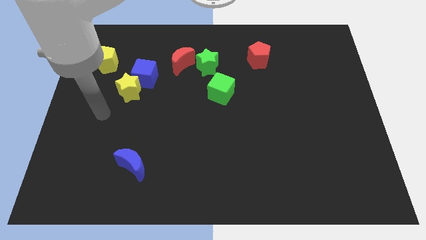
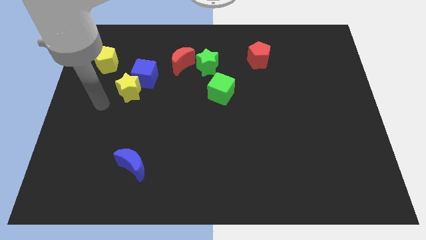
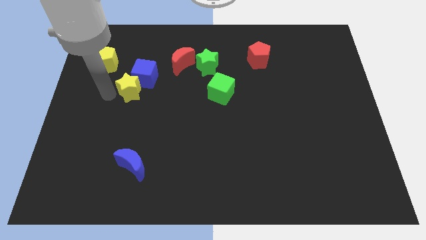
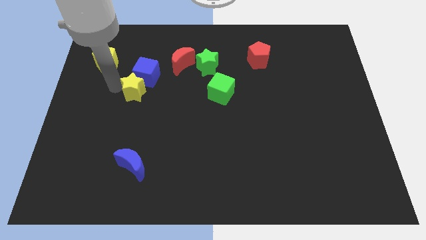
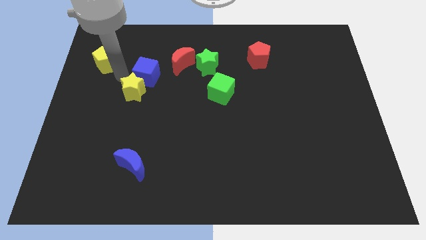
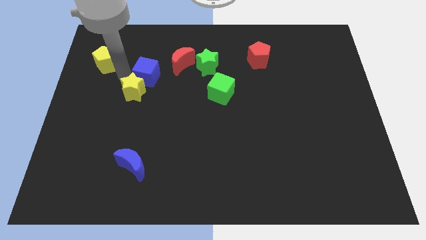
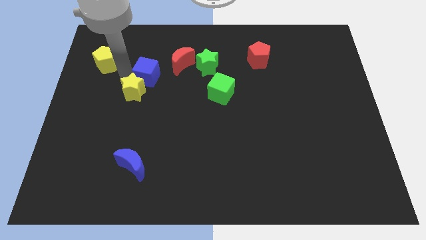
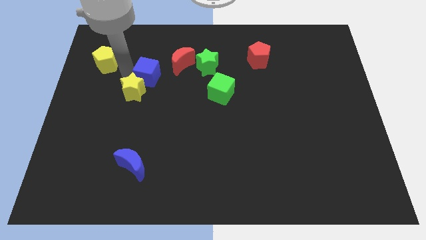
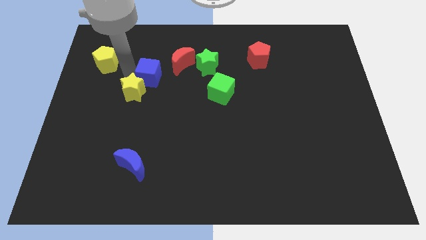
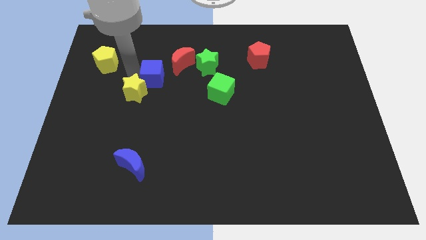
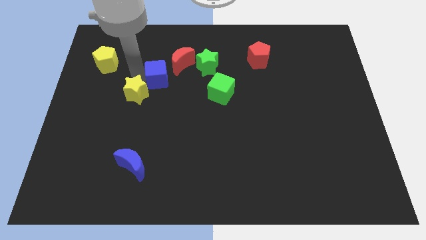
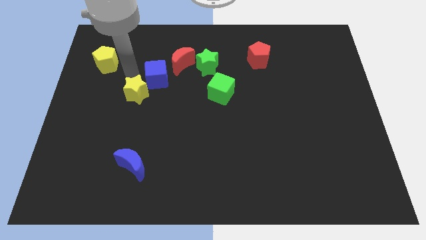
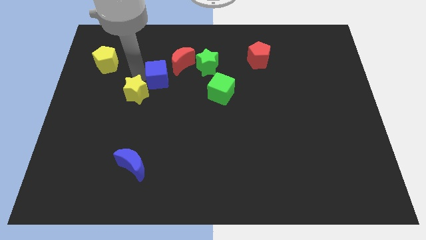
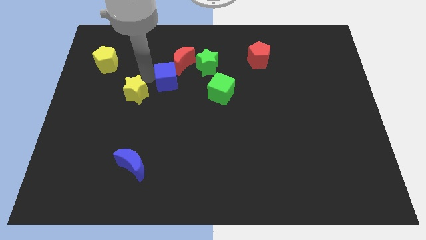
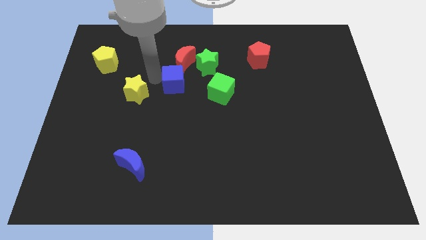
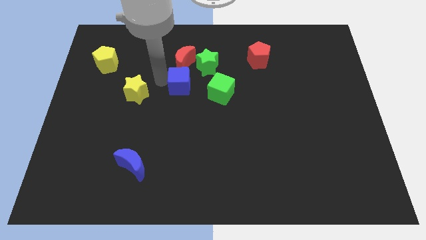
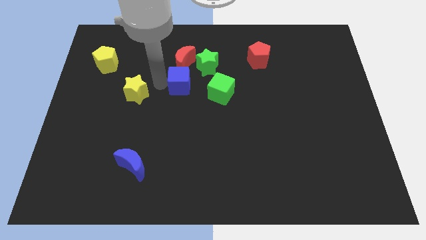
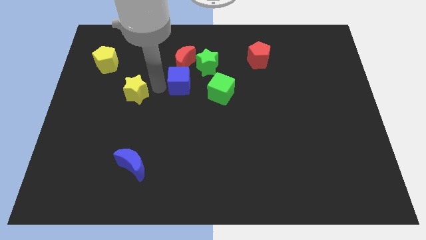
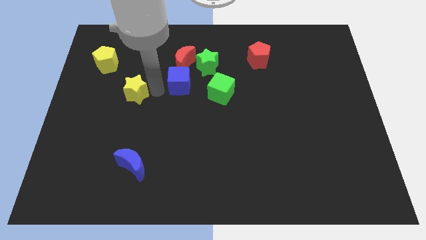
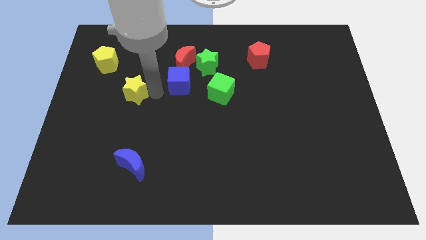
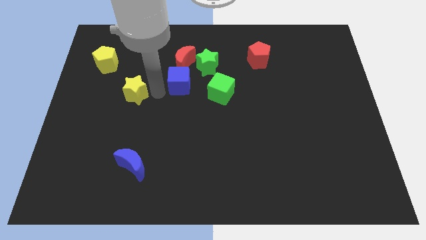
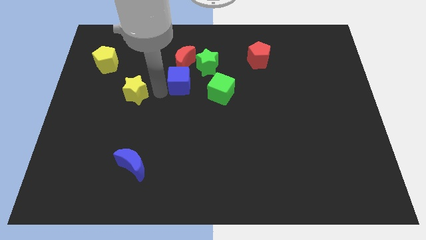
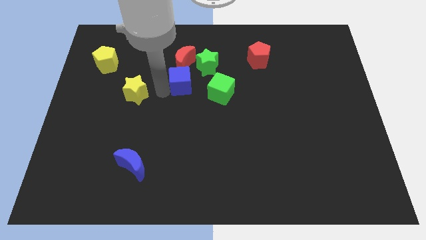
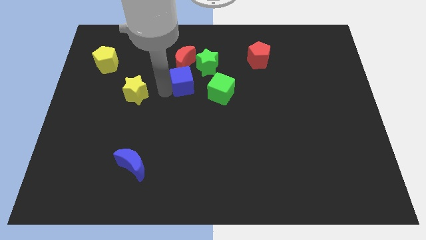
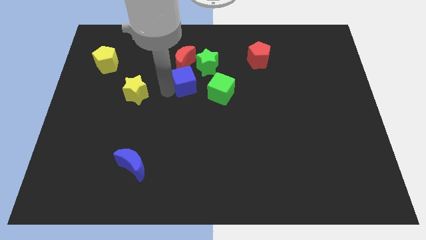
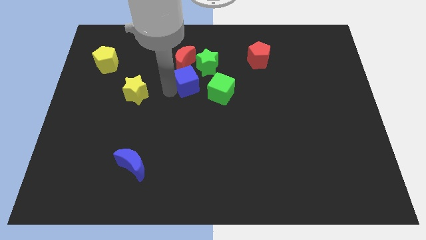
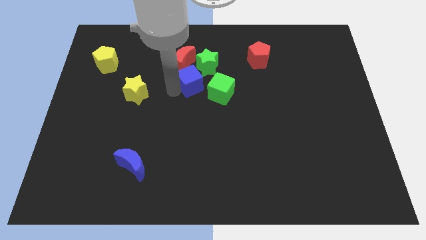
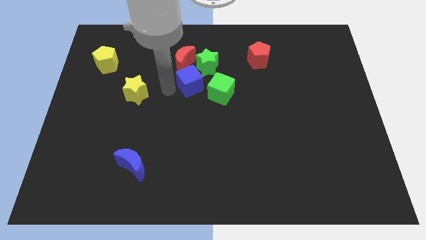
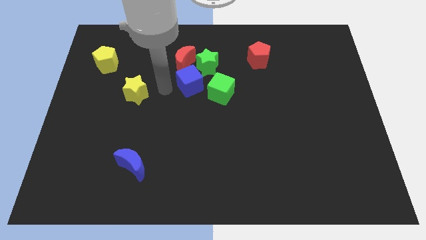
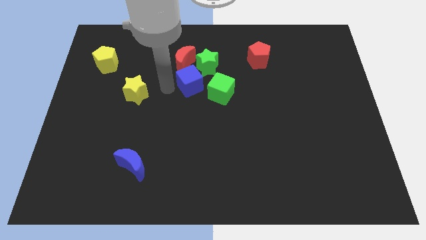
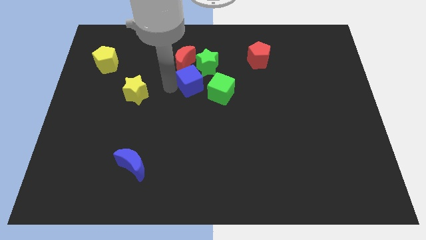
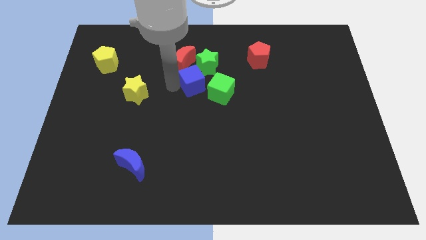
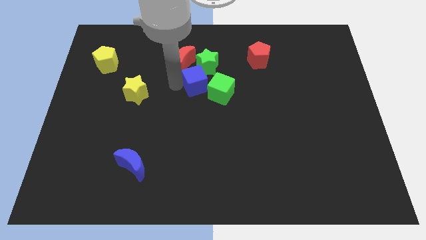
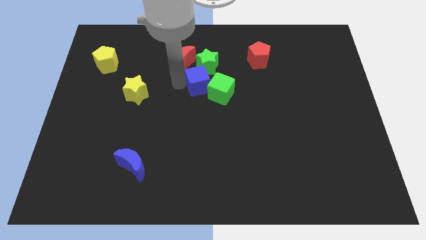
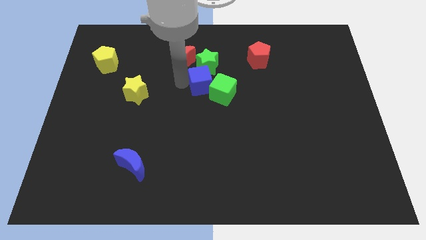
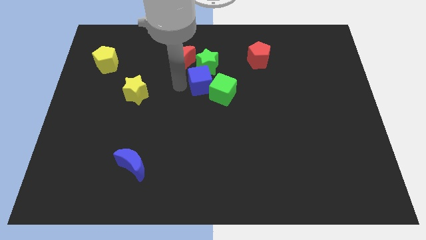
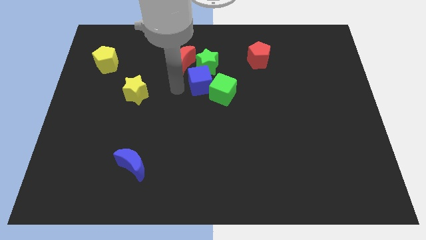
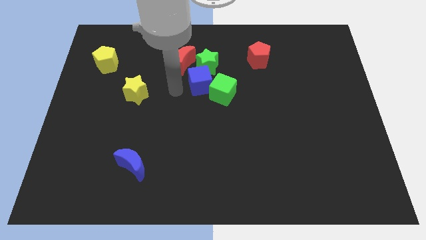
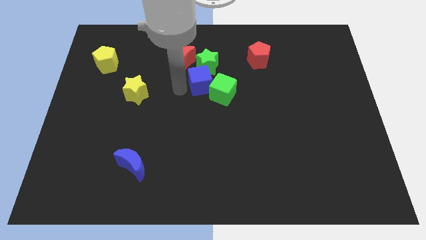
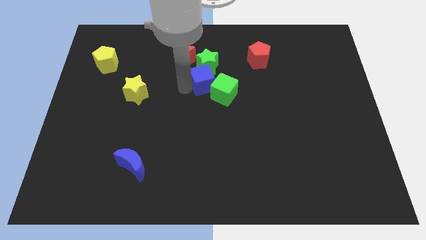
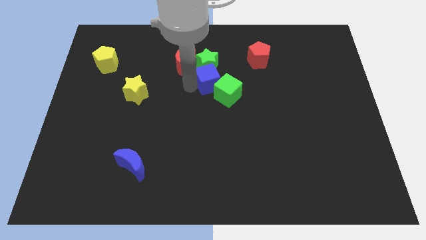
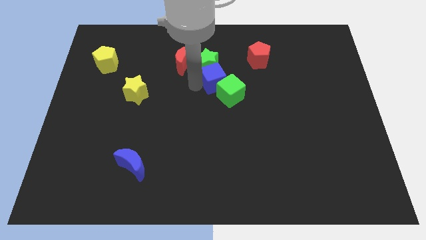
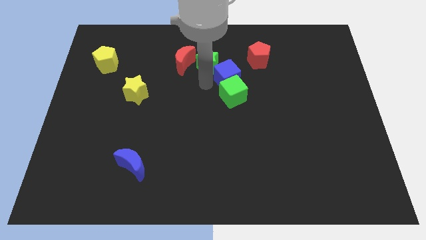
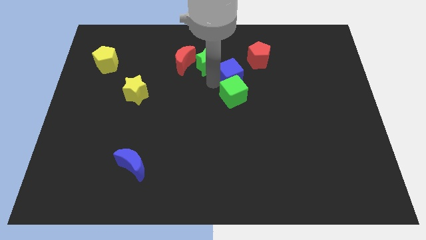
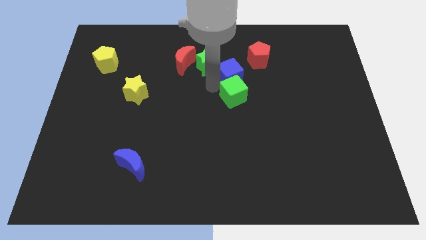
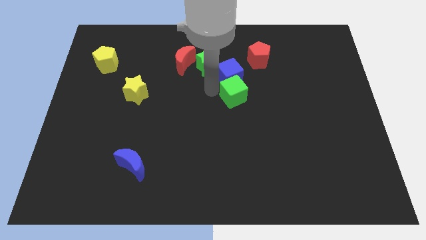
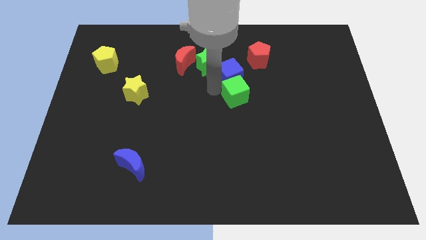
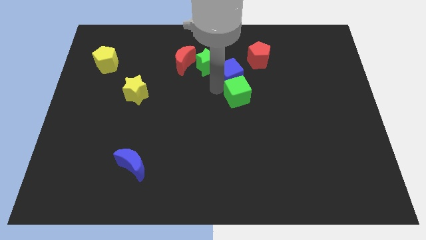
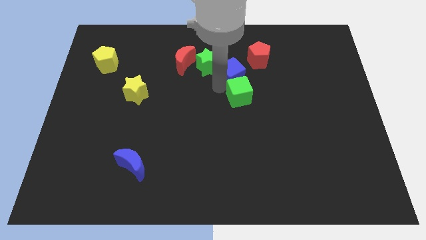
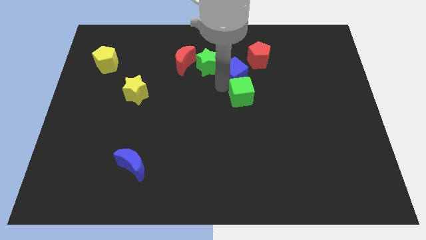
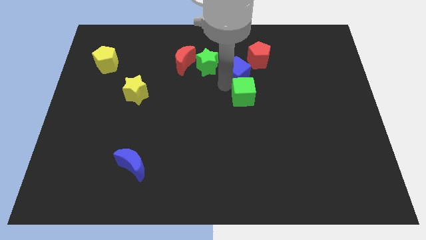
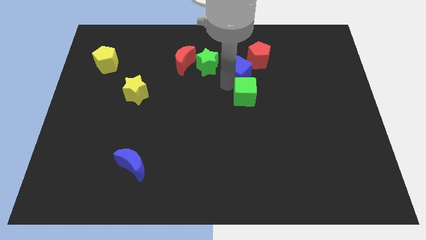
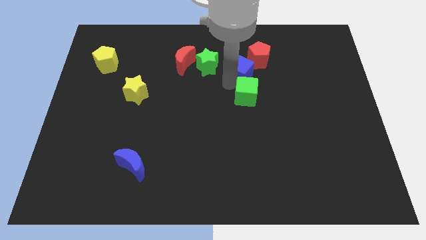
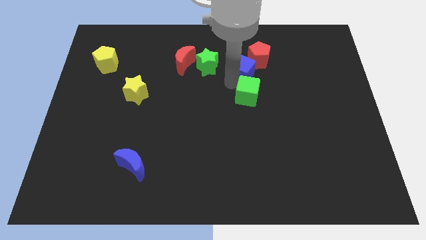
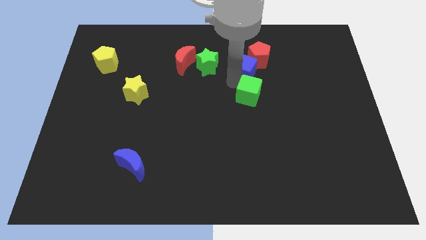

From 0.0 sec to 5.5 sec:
push the blue cube close to the red pentagon

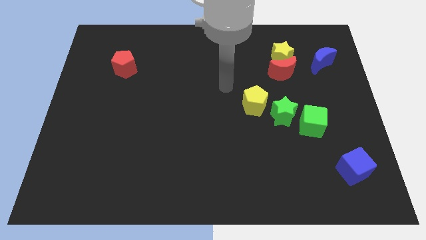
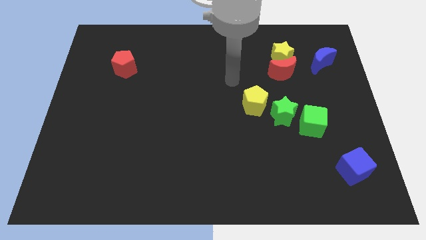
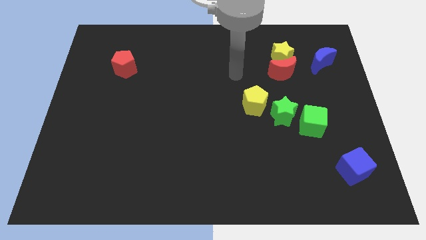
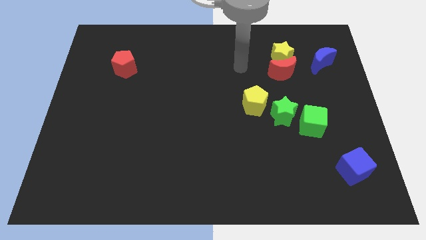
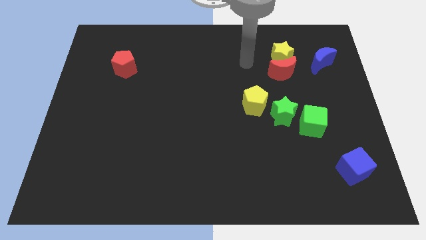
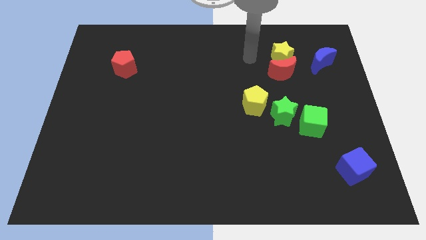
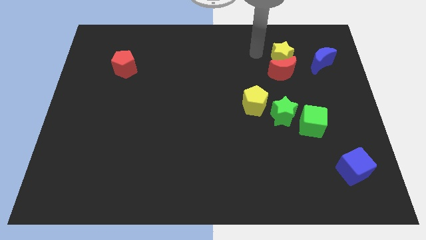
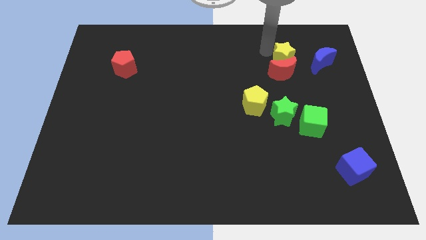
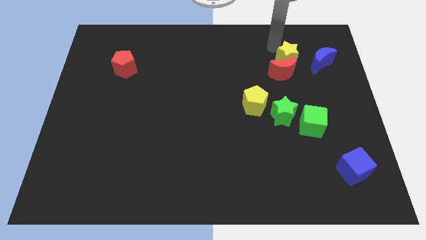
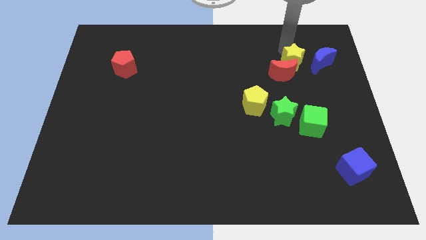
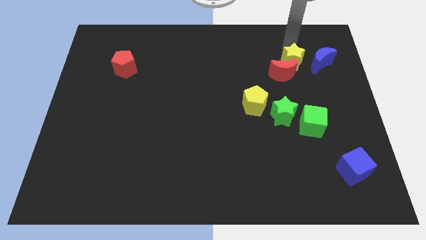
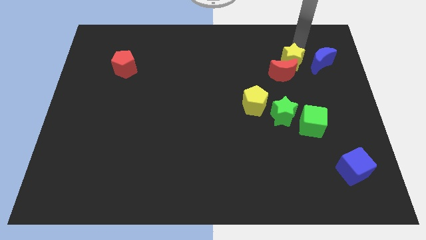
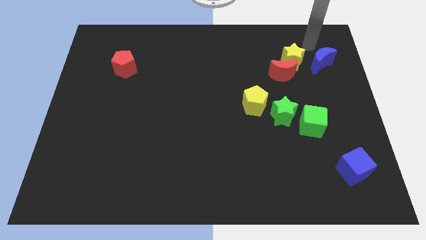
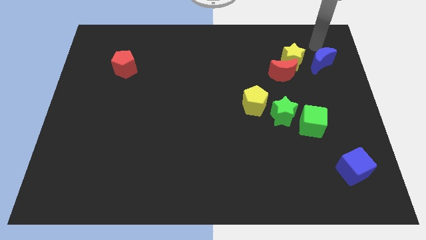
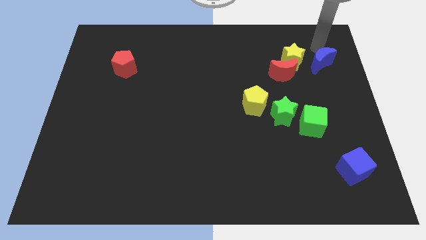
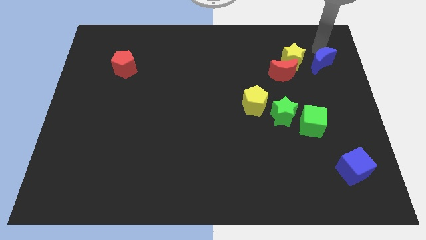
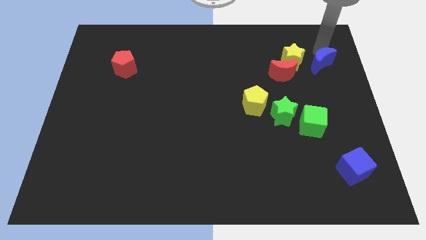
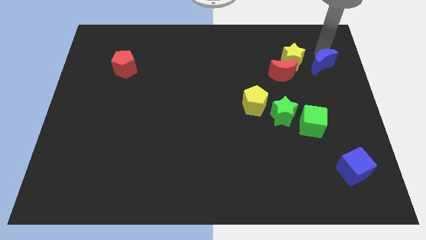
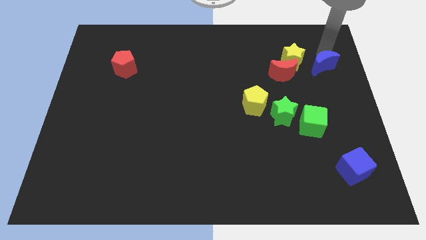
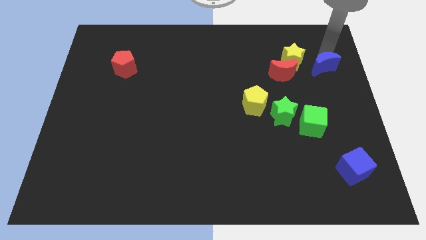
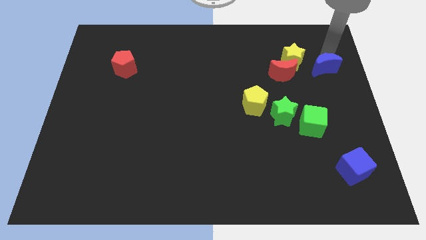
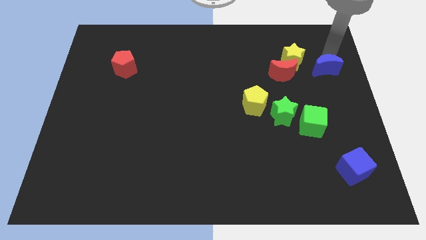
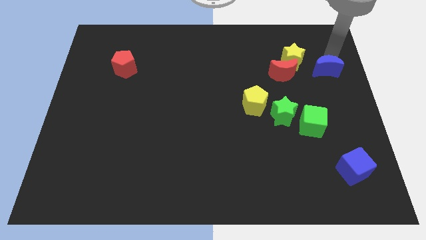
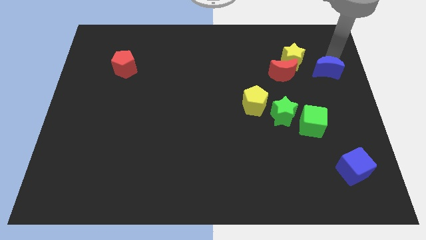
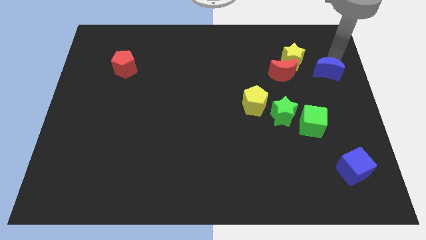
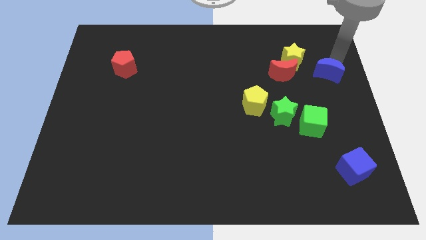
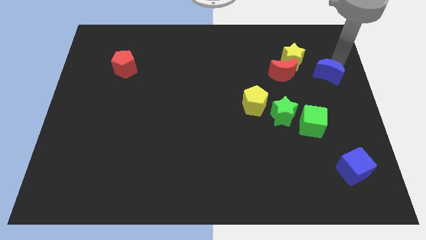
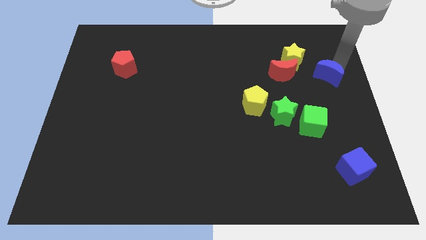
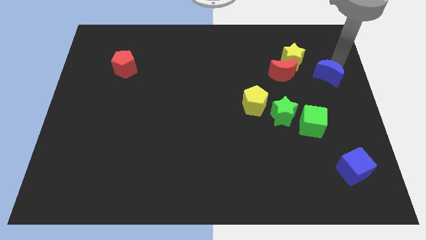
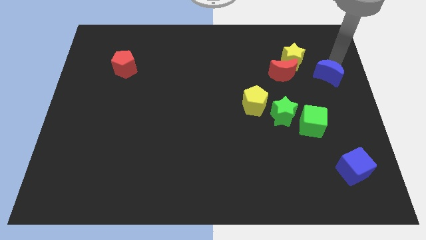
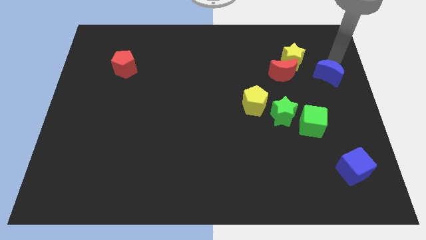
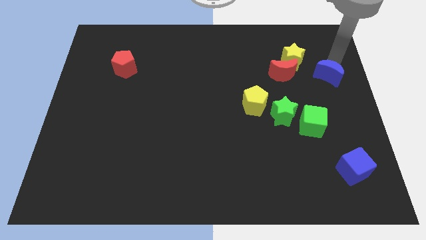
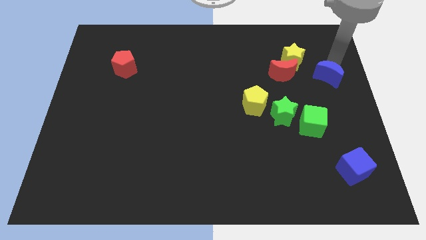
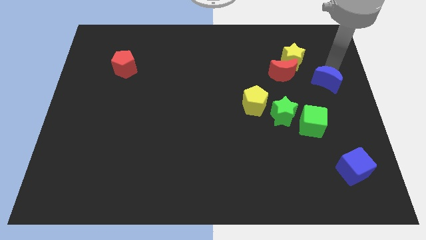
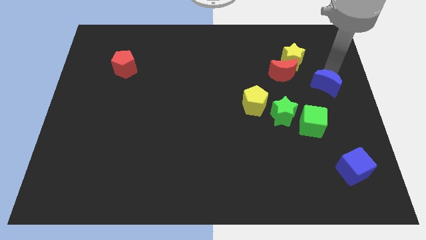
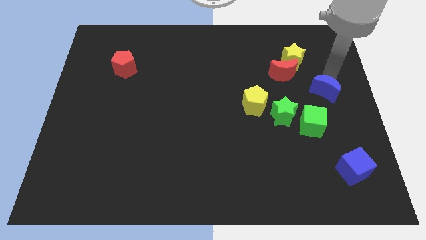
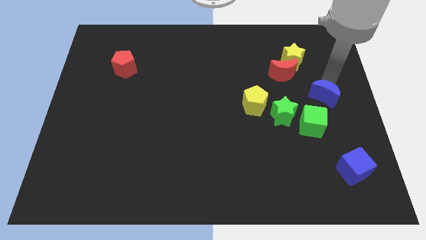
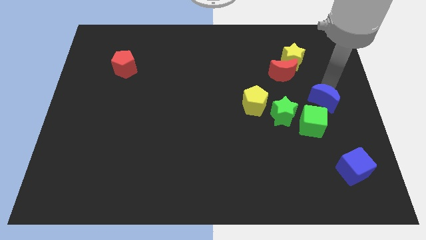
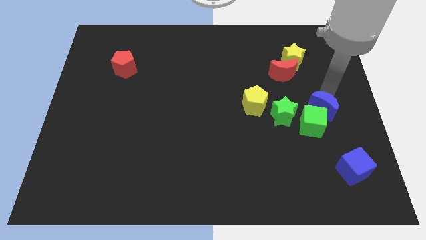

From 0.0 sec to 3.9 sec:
move the blue moon towards the green cube
